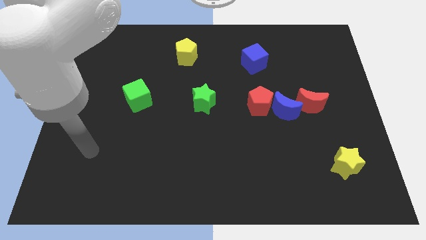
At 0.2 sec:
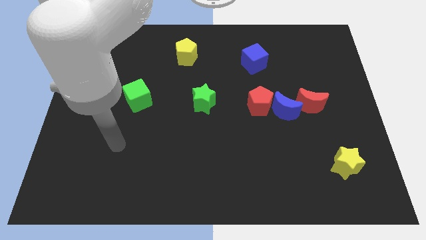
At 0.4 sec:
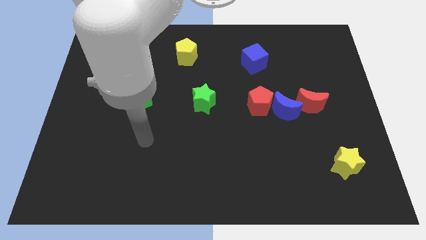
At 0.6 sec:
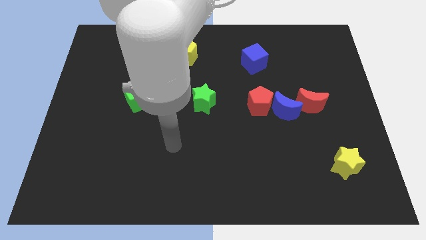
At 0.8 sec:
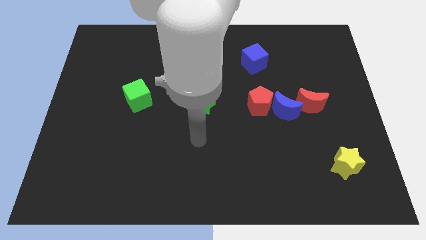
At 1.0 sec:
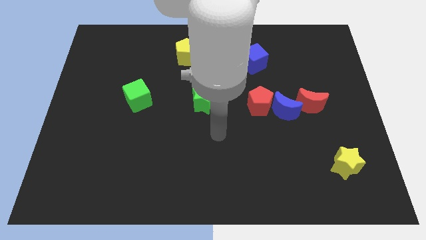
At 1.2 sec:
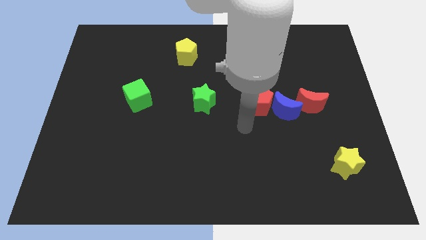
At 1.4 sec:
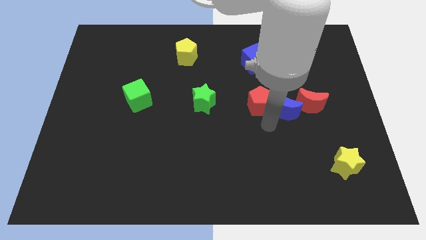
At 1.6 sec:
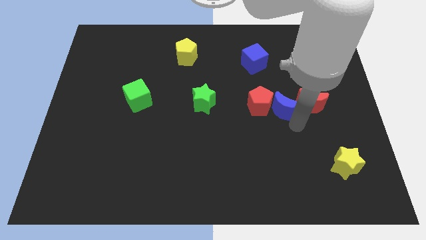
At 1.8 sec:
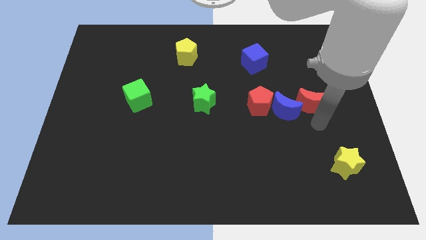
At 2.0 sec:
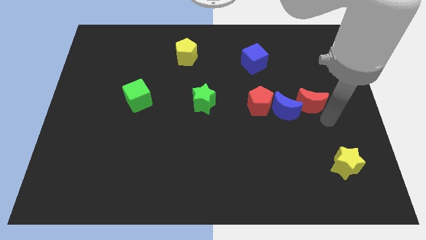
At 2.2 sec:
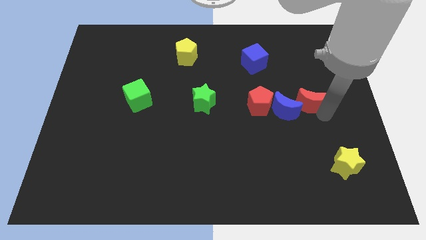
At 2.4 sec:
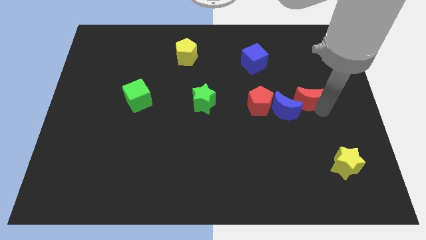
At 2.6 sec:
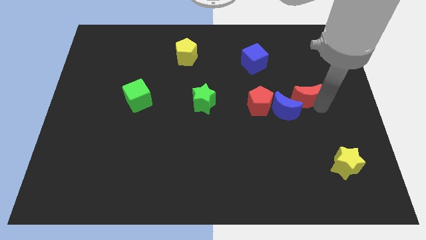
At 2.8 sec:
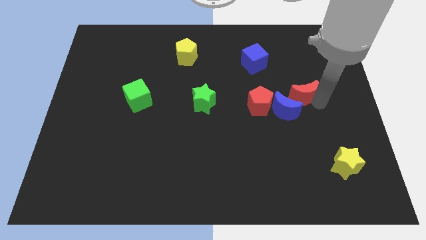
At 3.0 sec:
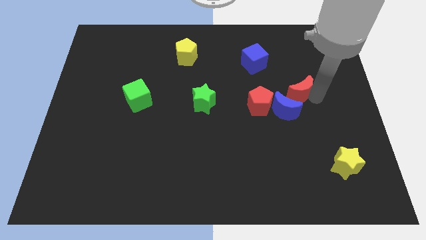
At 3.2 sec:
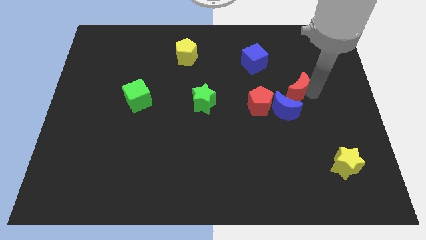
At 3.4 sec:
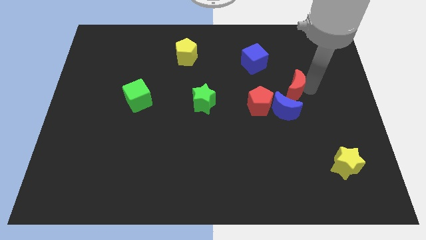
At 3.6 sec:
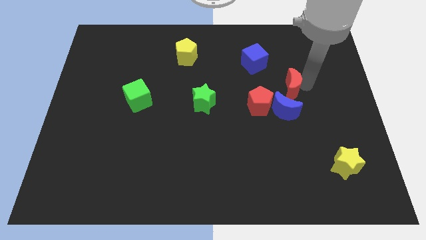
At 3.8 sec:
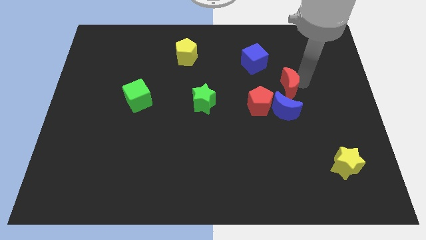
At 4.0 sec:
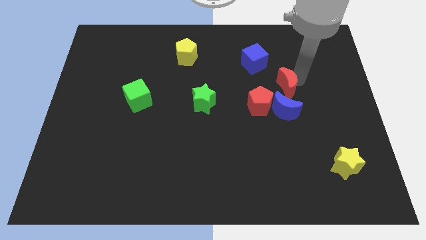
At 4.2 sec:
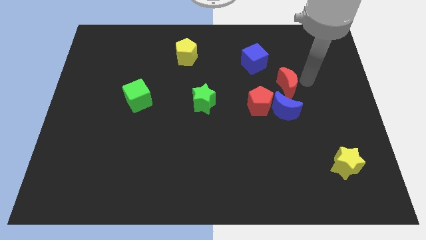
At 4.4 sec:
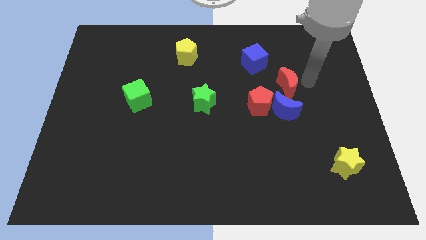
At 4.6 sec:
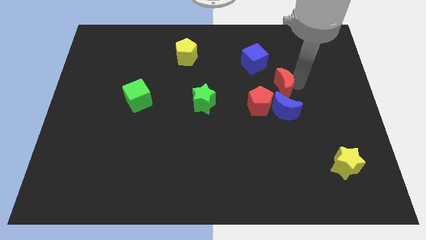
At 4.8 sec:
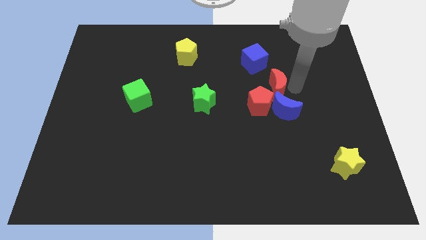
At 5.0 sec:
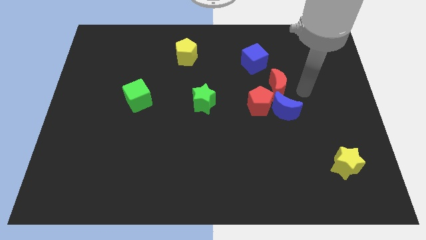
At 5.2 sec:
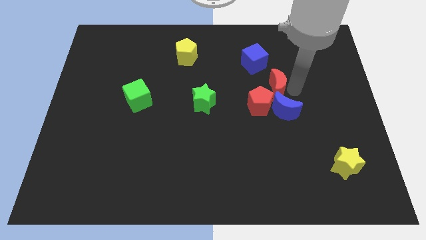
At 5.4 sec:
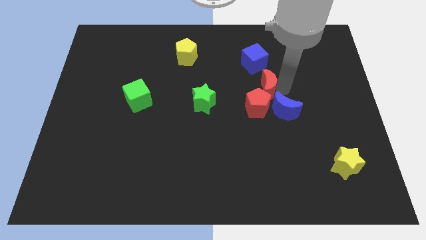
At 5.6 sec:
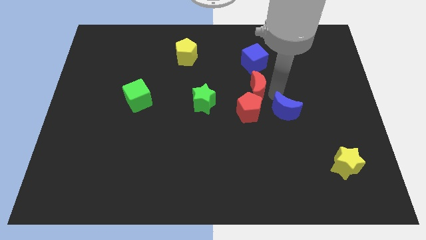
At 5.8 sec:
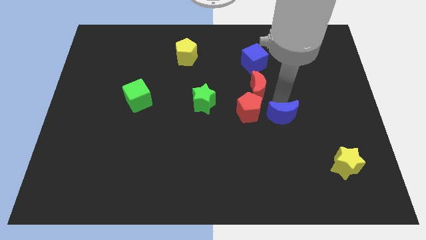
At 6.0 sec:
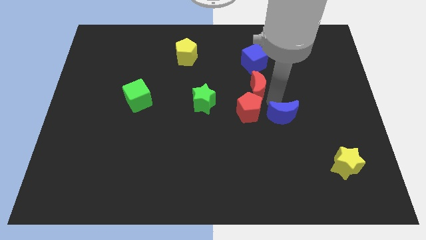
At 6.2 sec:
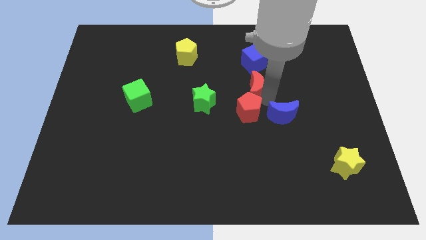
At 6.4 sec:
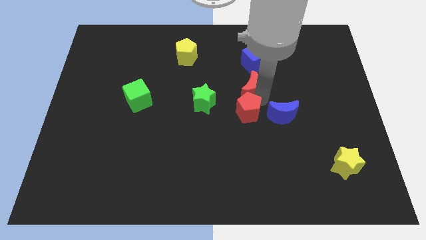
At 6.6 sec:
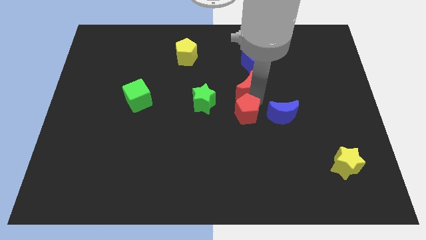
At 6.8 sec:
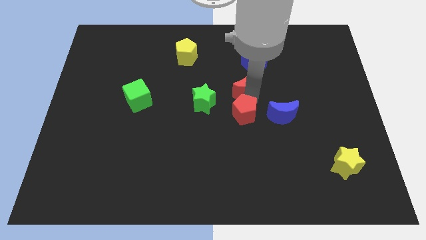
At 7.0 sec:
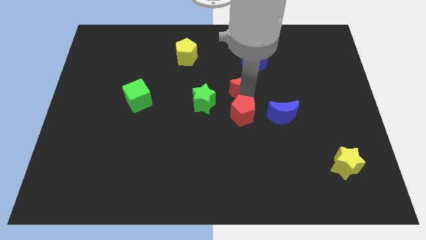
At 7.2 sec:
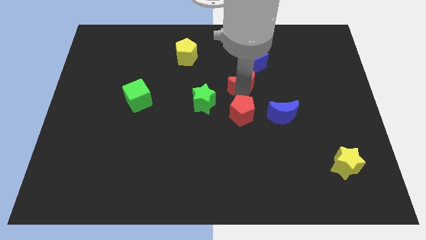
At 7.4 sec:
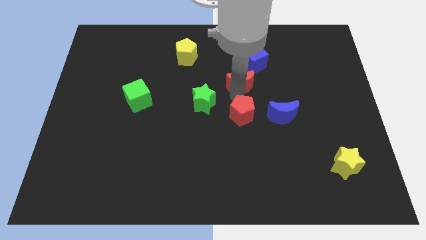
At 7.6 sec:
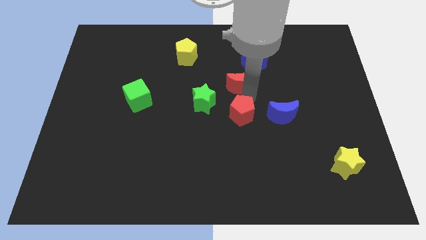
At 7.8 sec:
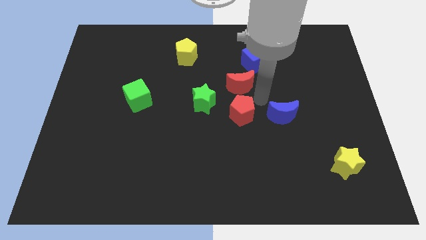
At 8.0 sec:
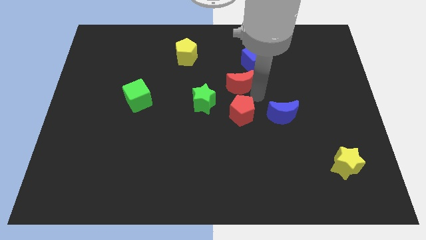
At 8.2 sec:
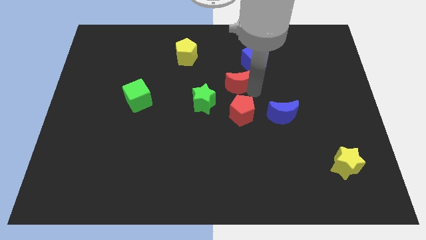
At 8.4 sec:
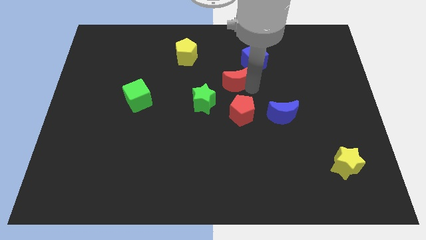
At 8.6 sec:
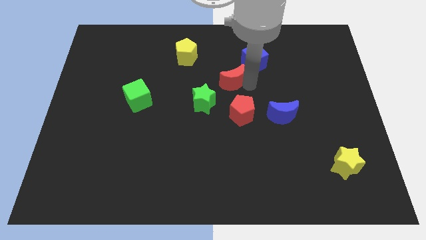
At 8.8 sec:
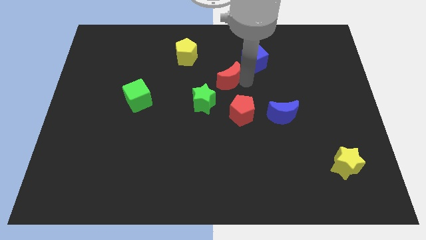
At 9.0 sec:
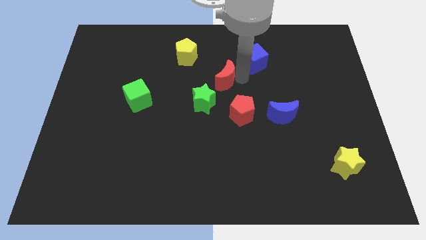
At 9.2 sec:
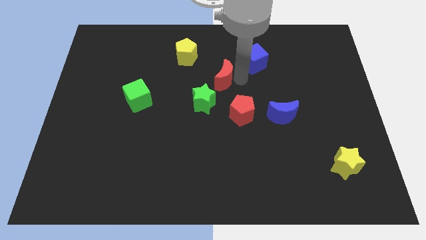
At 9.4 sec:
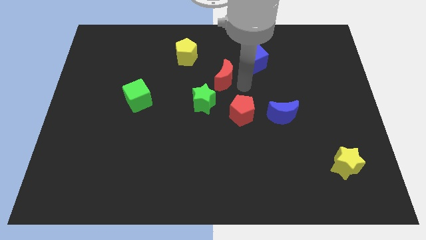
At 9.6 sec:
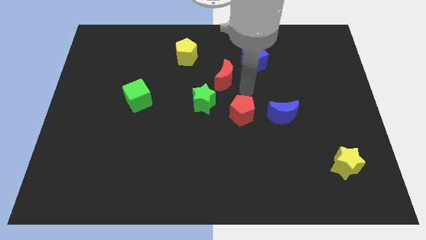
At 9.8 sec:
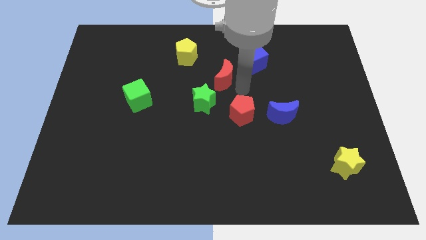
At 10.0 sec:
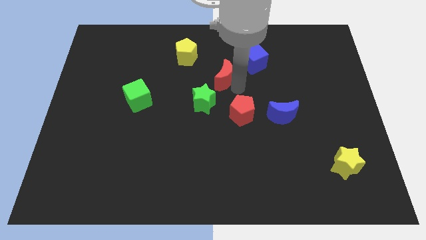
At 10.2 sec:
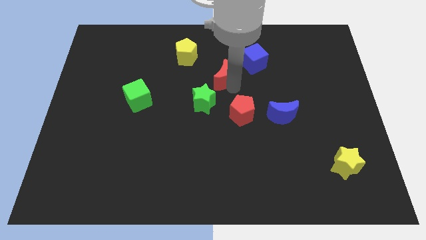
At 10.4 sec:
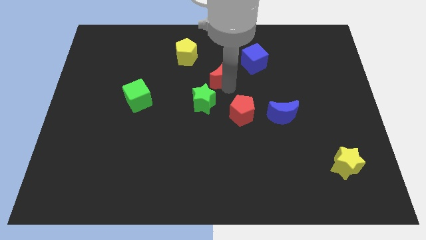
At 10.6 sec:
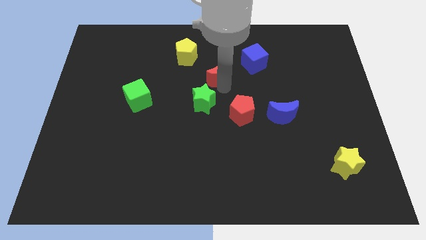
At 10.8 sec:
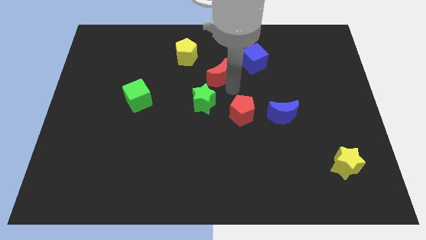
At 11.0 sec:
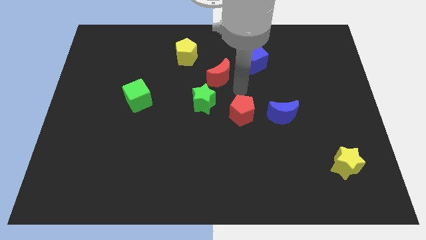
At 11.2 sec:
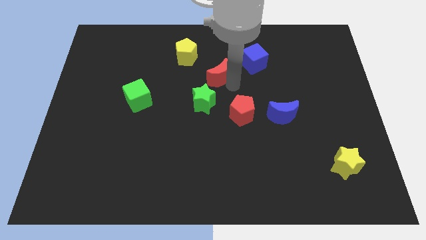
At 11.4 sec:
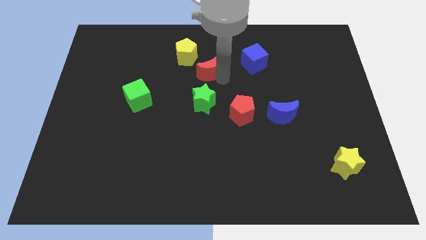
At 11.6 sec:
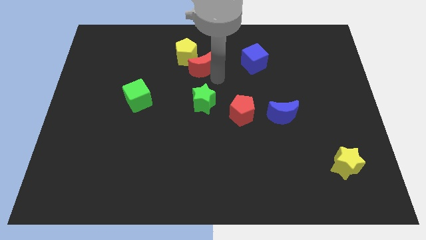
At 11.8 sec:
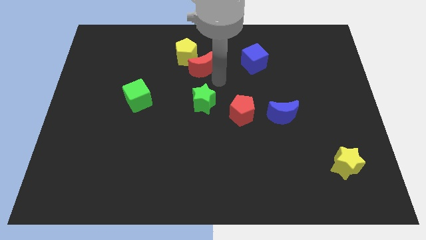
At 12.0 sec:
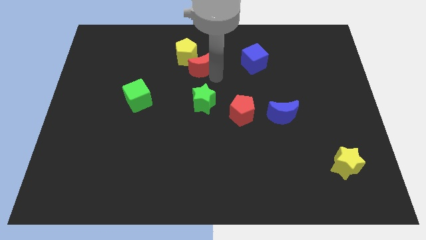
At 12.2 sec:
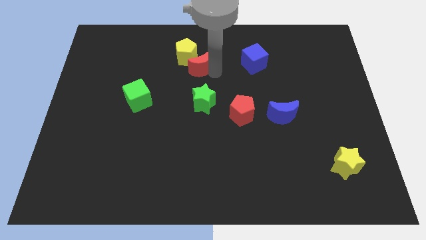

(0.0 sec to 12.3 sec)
push the red moon towards the yellow pentagon

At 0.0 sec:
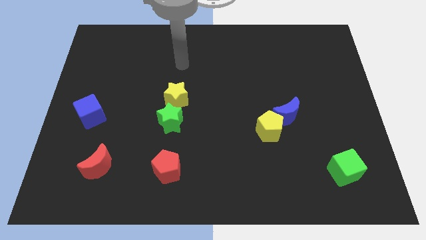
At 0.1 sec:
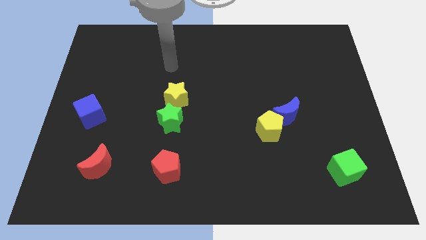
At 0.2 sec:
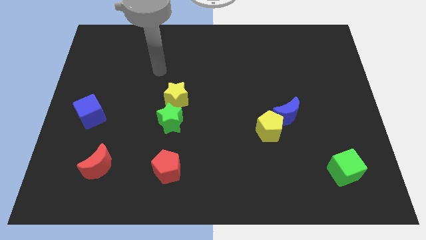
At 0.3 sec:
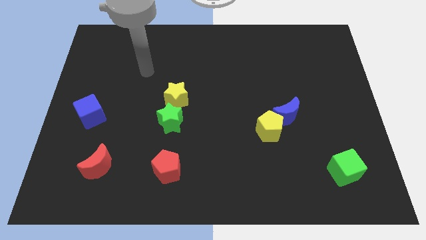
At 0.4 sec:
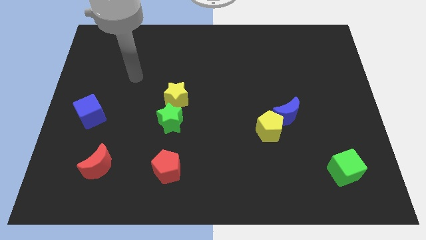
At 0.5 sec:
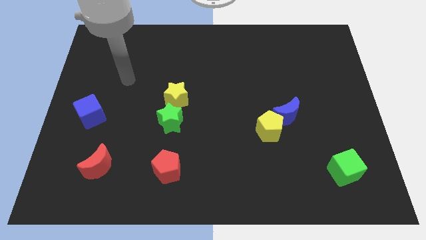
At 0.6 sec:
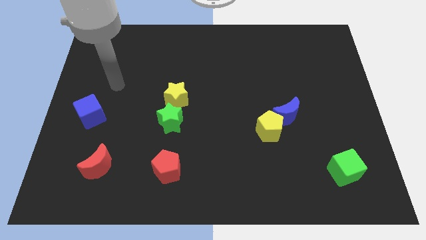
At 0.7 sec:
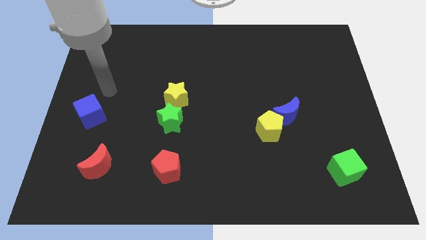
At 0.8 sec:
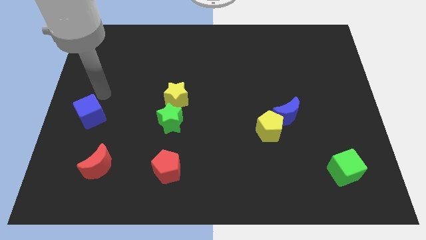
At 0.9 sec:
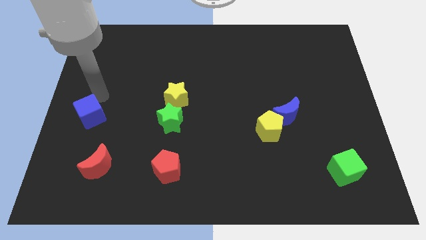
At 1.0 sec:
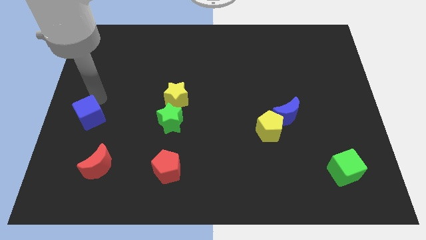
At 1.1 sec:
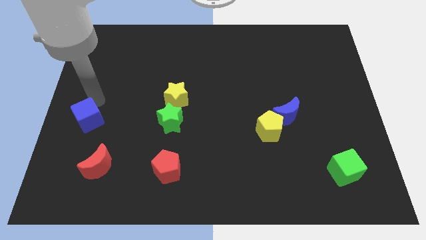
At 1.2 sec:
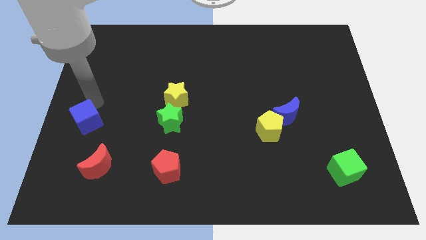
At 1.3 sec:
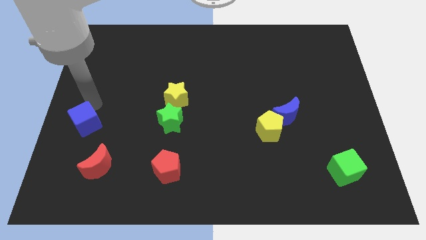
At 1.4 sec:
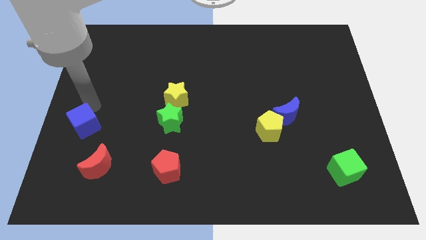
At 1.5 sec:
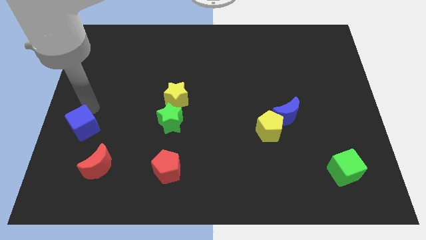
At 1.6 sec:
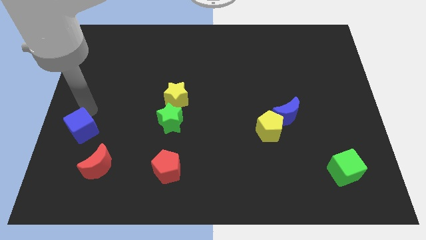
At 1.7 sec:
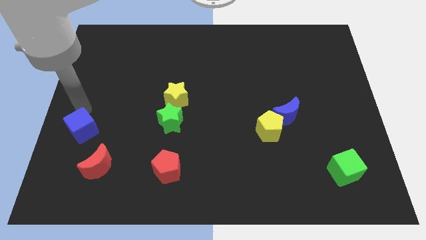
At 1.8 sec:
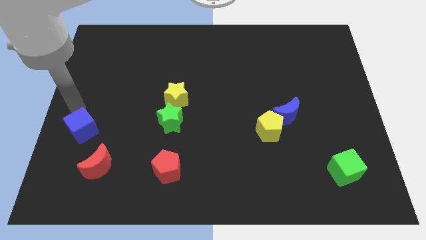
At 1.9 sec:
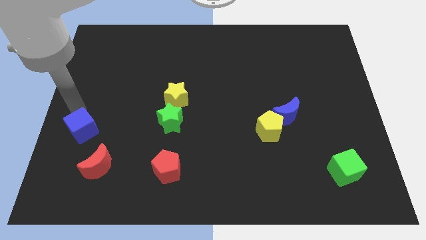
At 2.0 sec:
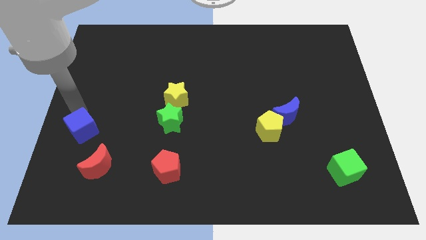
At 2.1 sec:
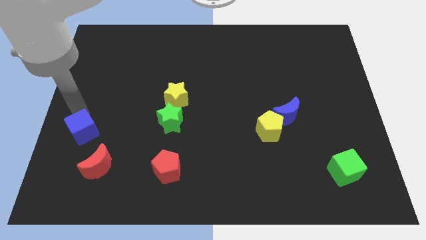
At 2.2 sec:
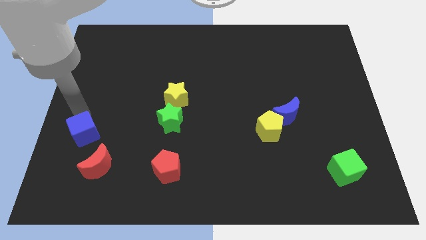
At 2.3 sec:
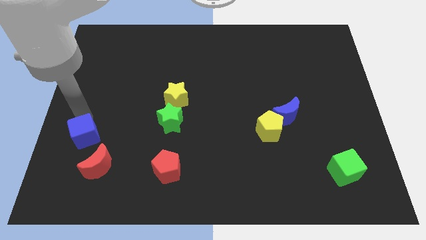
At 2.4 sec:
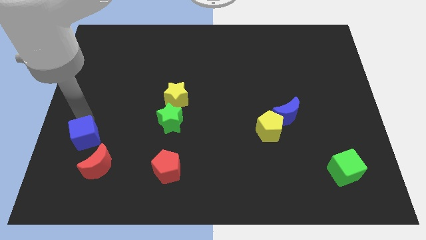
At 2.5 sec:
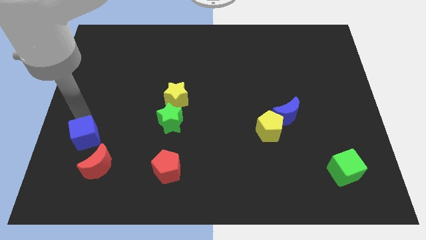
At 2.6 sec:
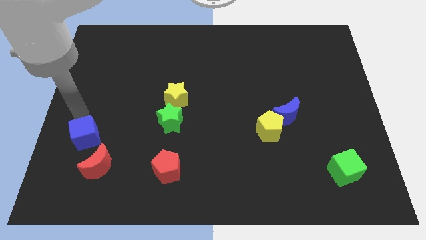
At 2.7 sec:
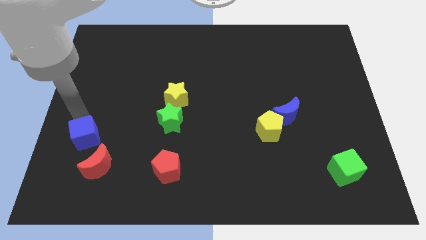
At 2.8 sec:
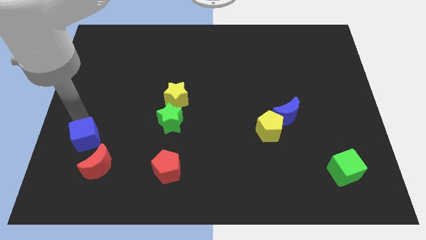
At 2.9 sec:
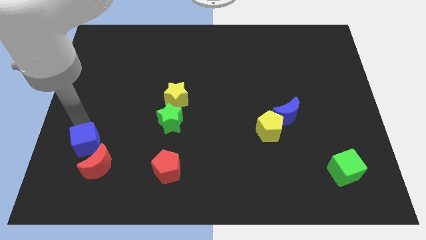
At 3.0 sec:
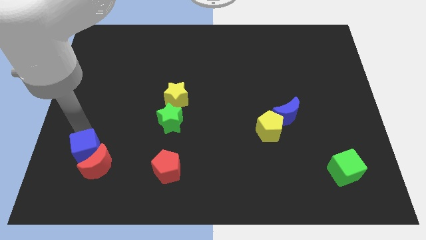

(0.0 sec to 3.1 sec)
slide the blue cube next to the red moon
